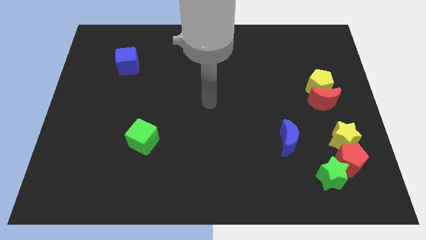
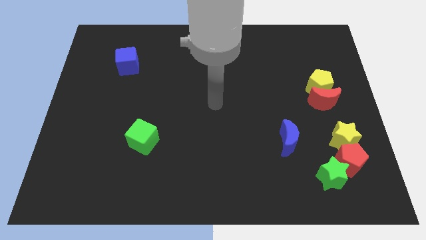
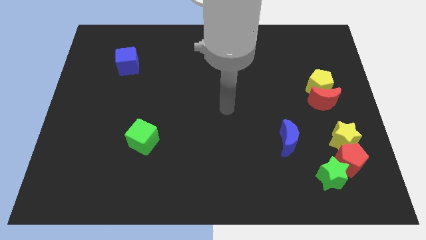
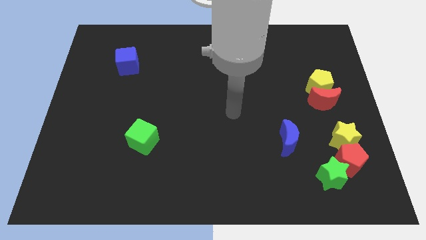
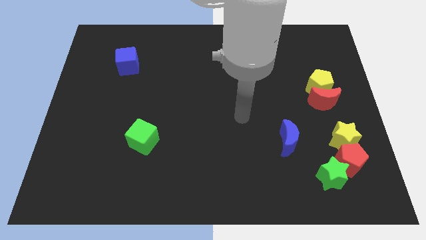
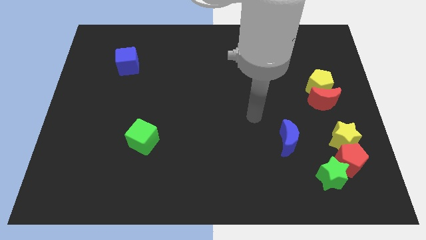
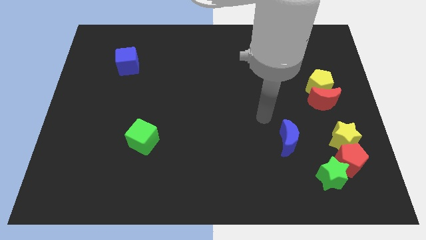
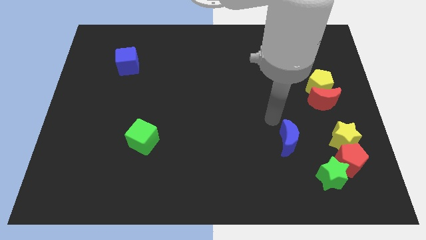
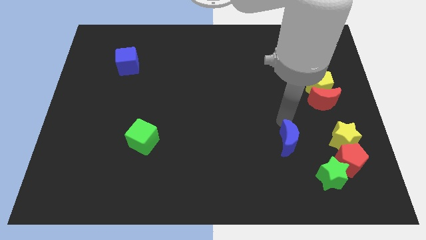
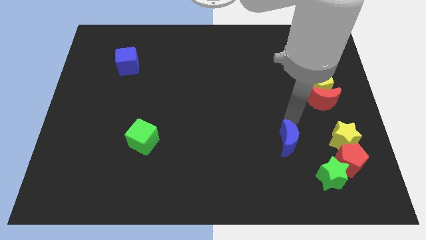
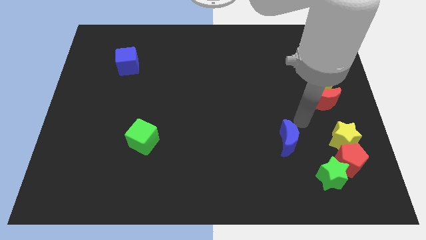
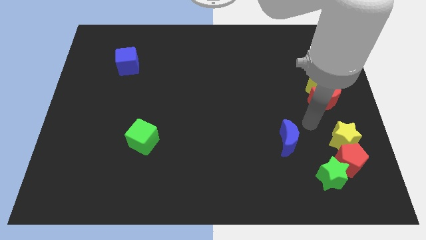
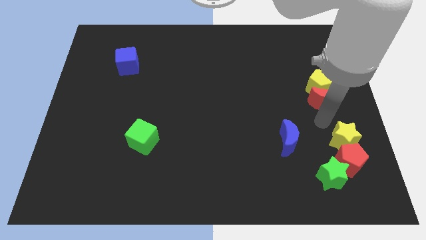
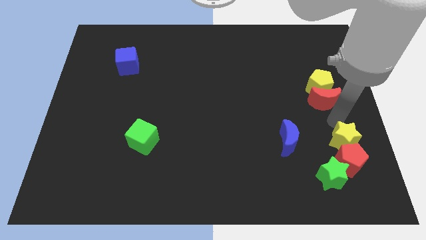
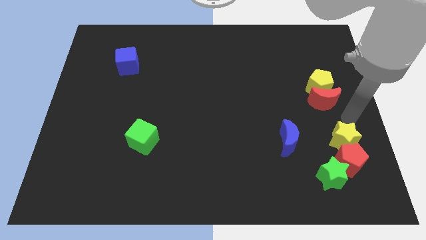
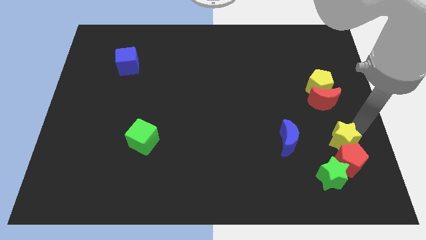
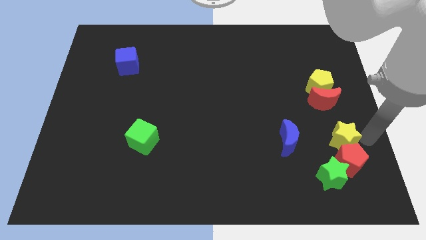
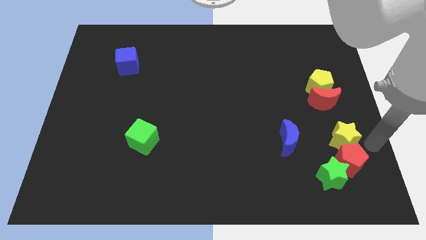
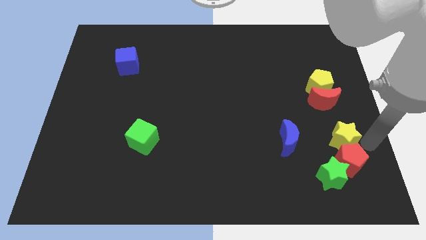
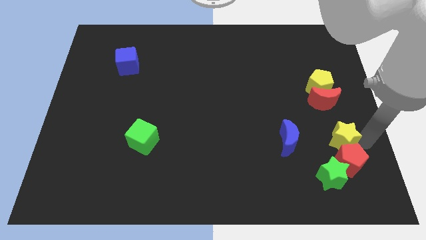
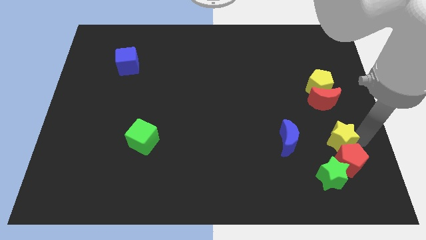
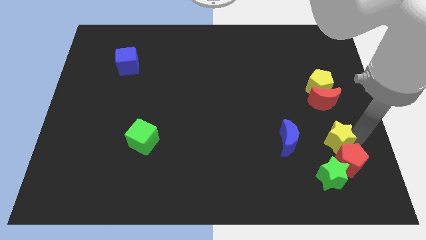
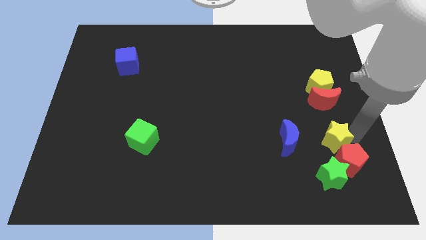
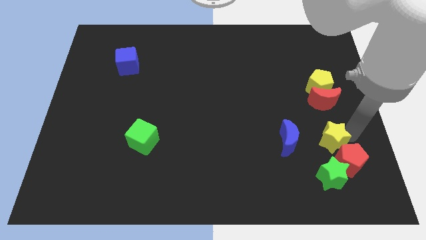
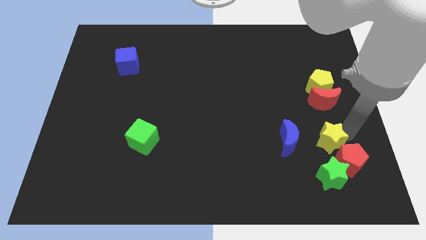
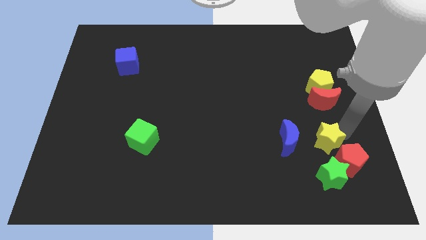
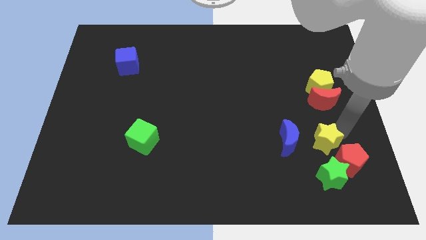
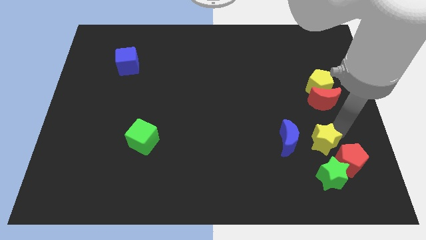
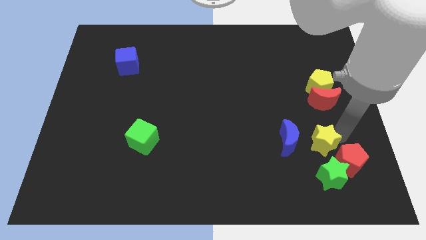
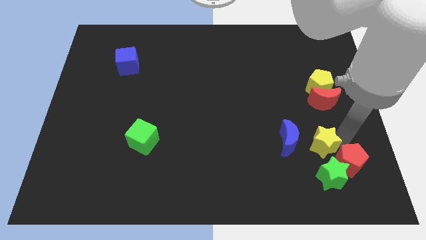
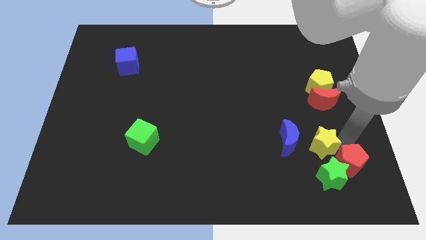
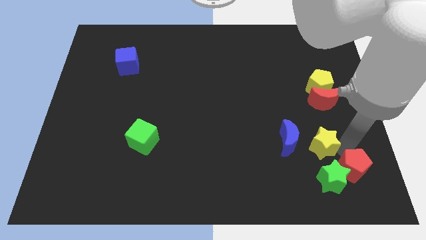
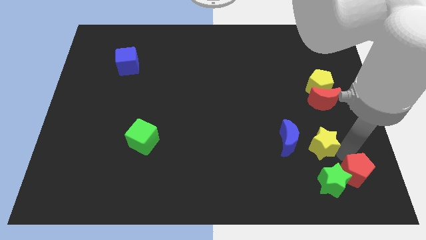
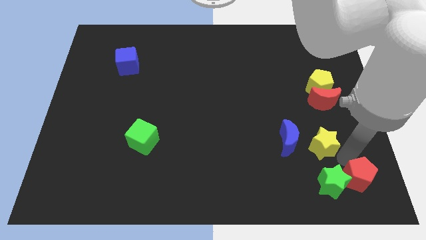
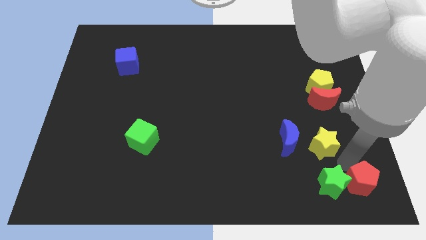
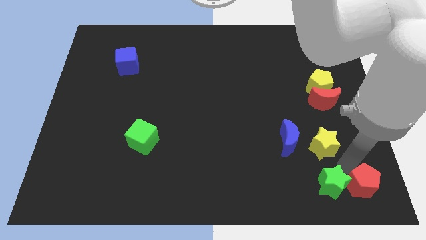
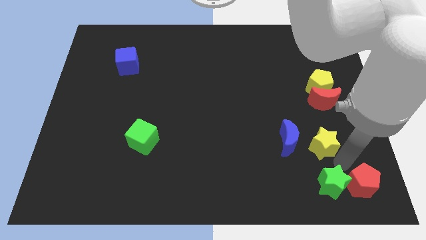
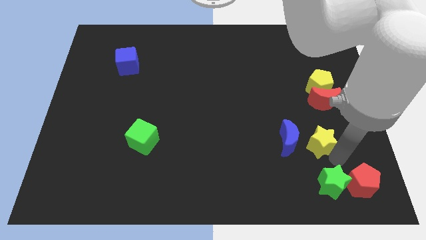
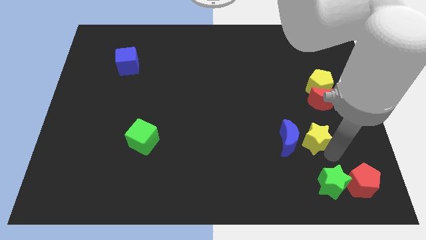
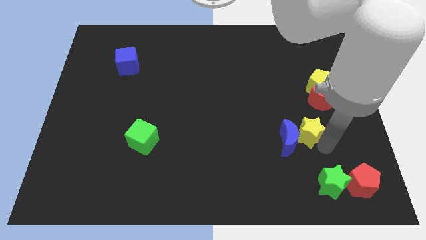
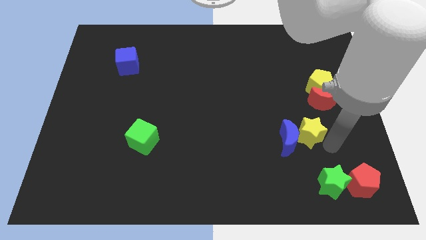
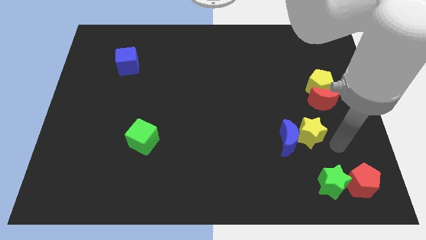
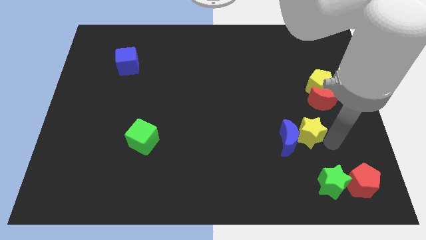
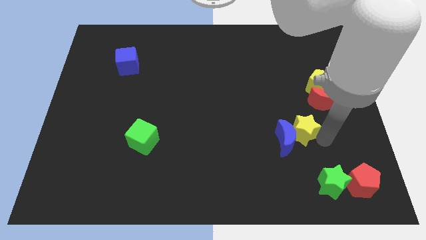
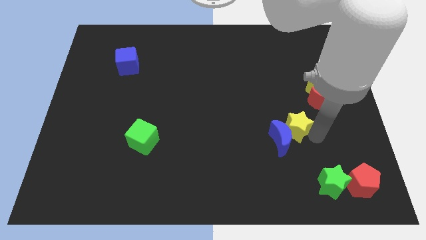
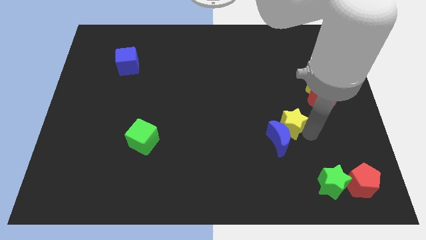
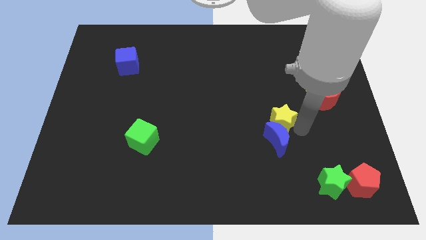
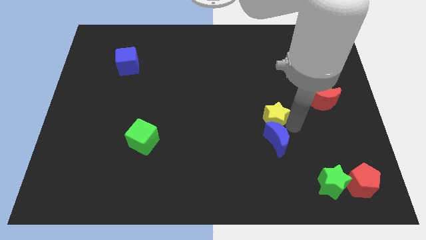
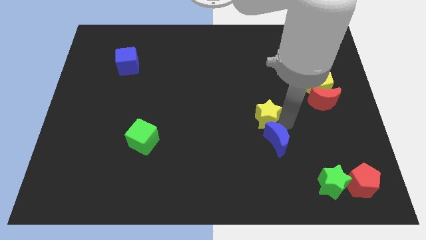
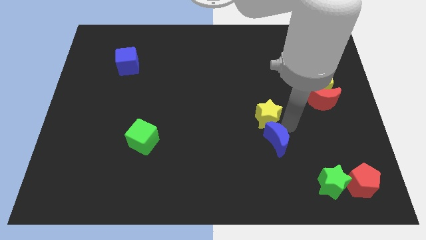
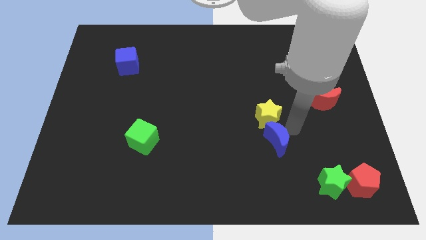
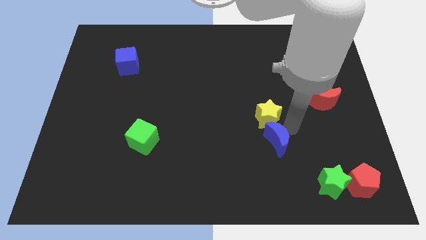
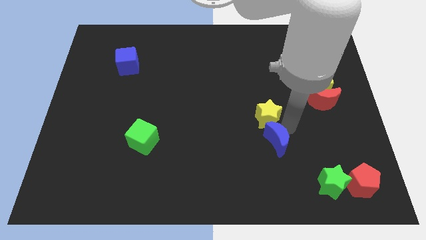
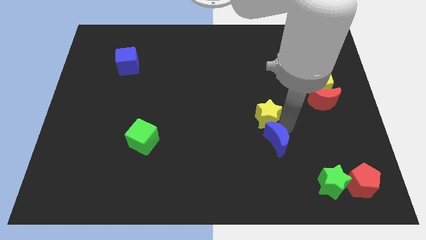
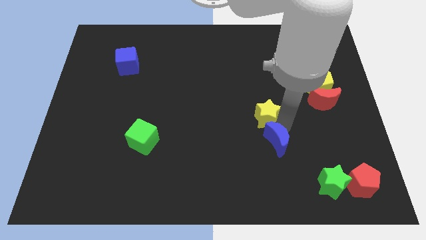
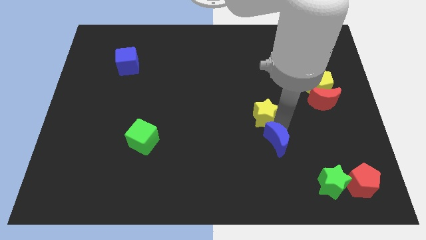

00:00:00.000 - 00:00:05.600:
put the yellow star to the middle

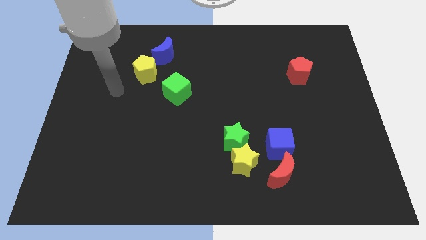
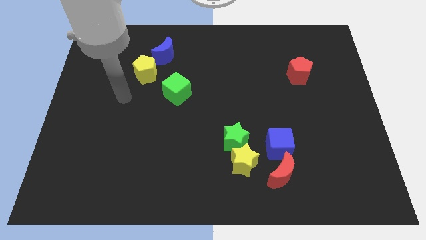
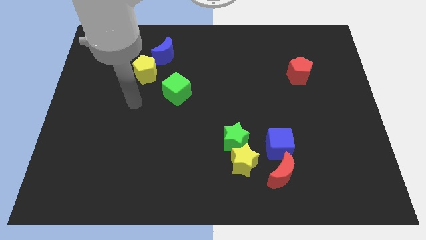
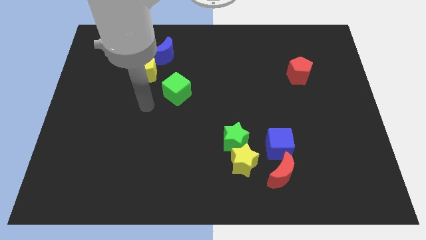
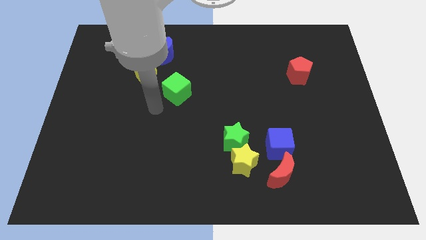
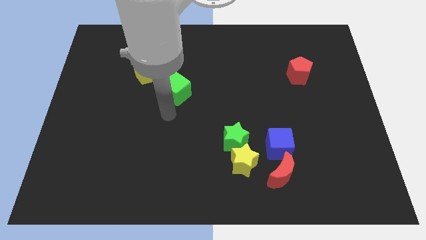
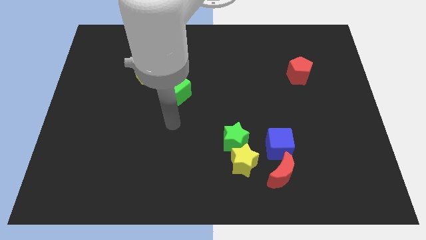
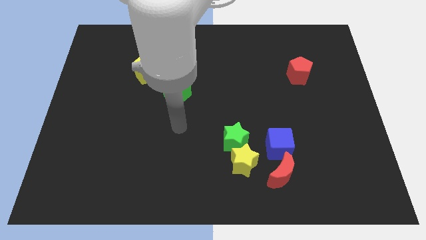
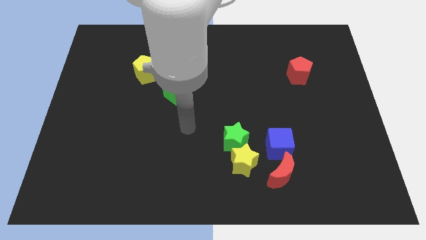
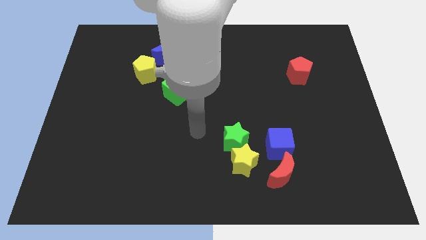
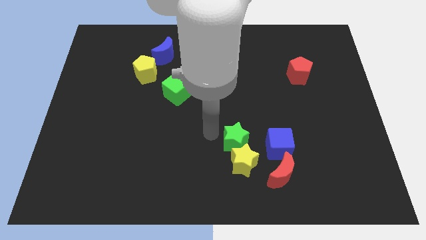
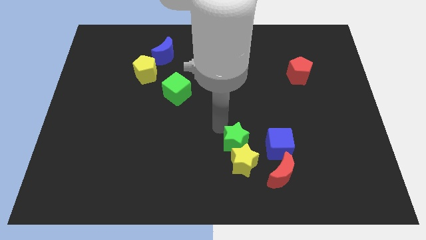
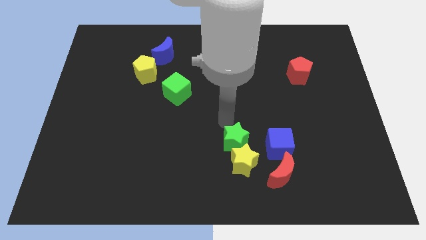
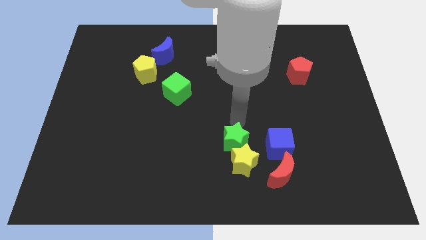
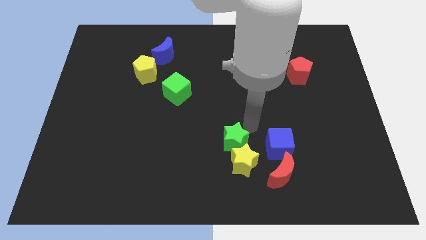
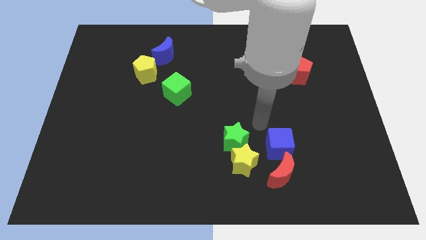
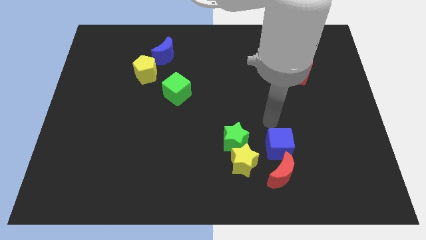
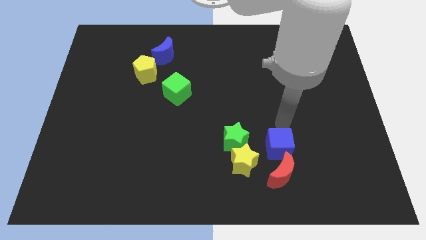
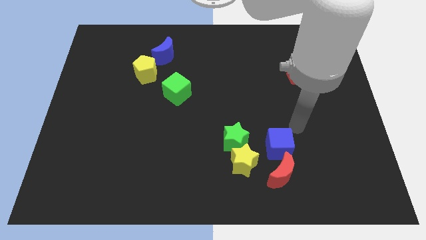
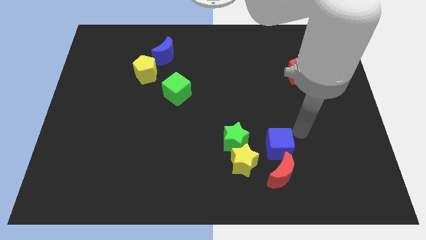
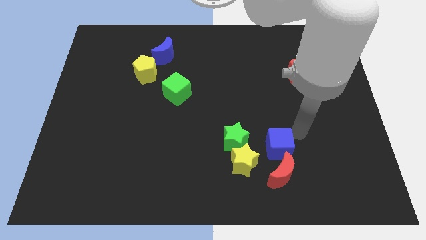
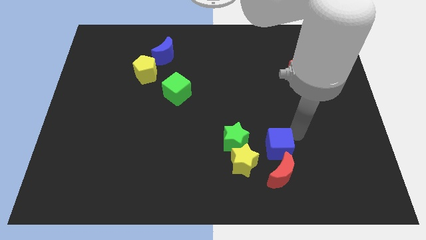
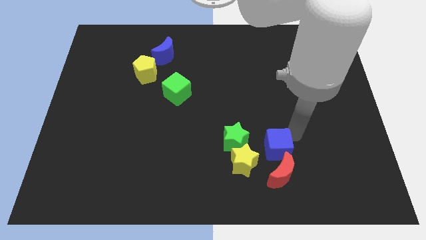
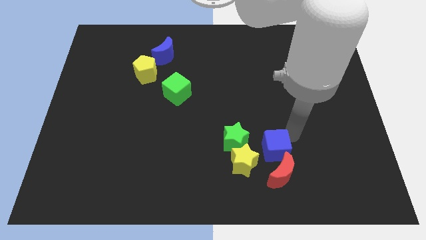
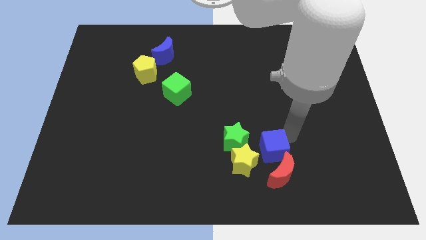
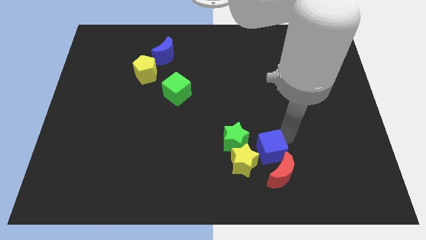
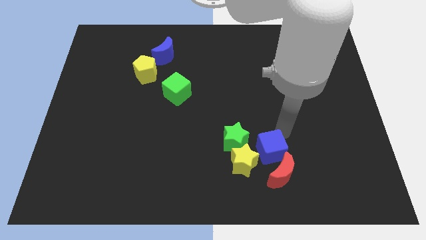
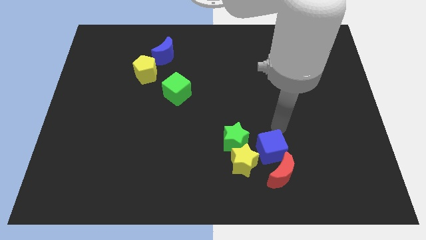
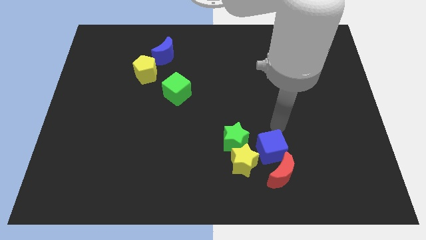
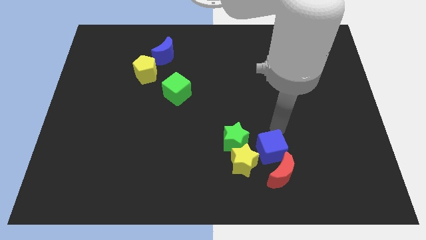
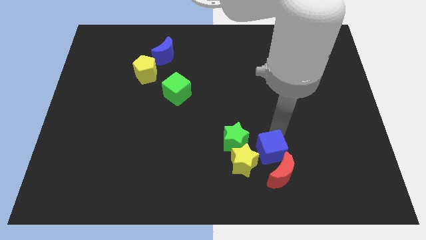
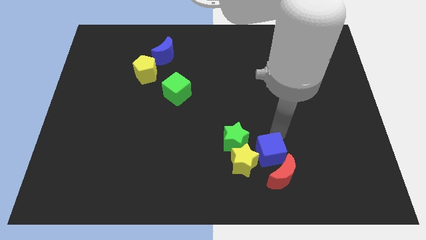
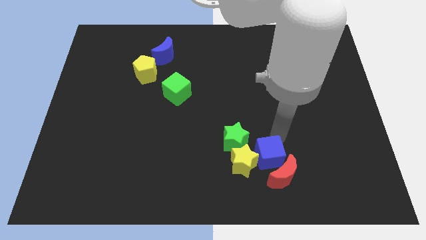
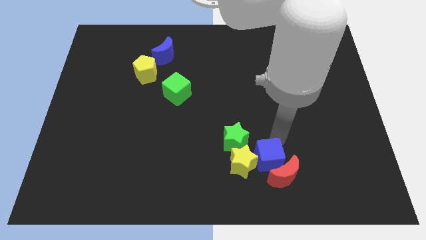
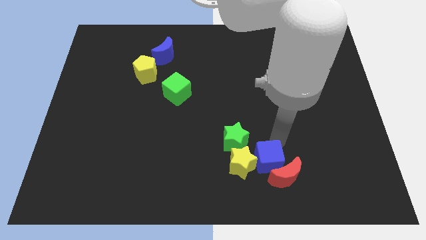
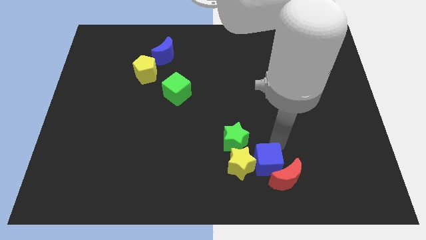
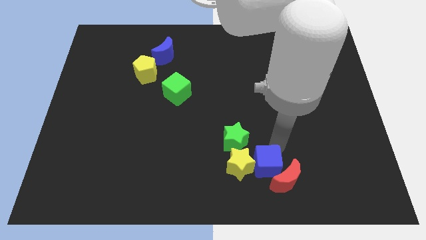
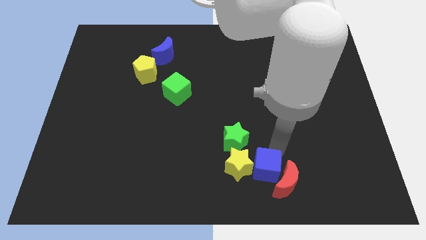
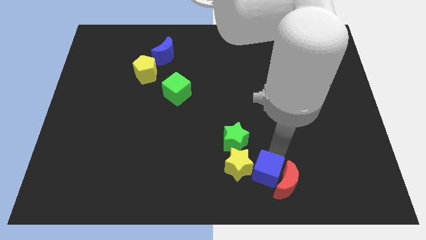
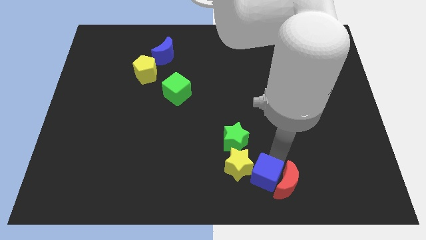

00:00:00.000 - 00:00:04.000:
move the blue cube to the bottom
